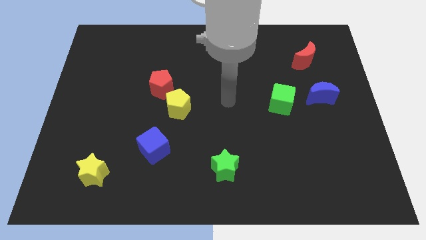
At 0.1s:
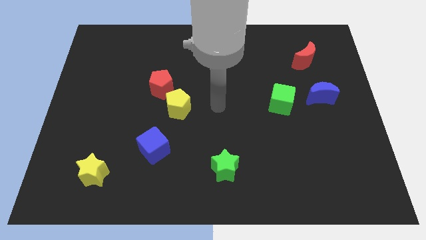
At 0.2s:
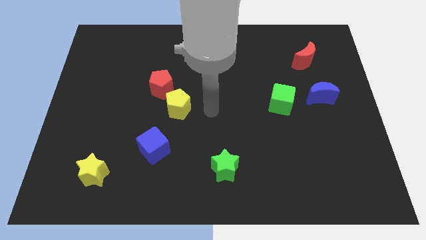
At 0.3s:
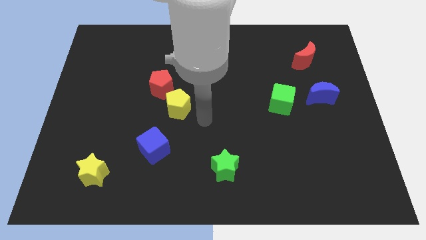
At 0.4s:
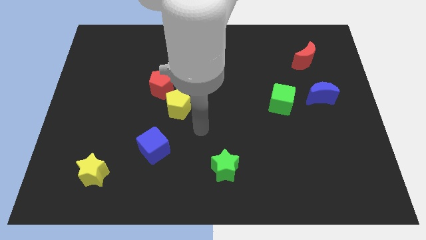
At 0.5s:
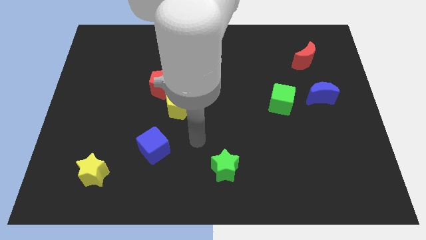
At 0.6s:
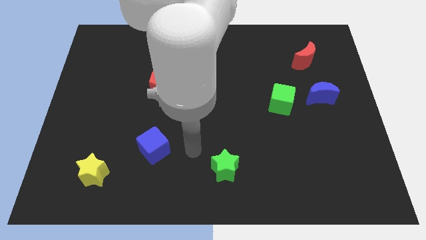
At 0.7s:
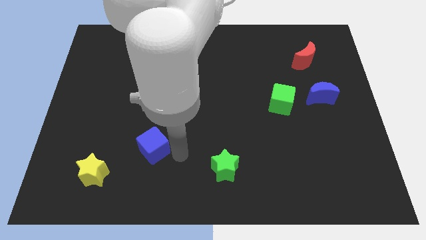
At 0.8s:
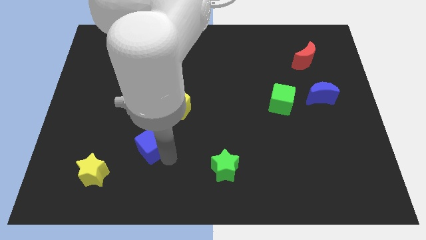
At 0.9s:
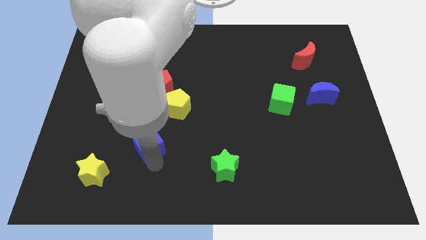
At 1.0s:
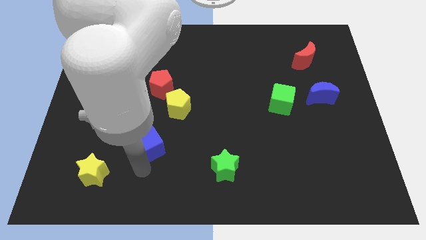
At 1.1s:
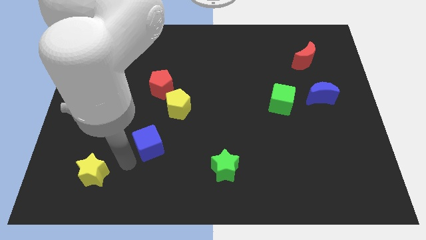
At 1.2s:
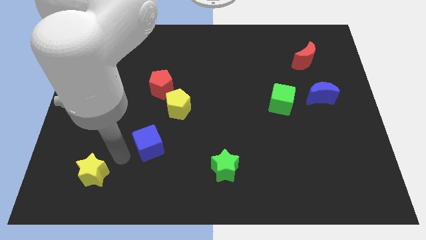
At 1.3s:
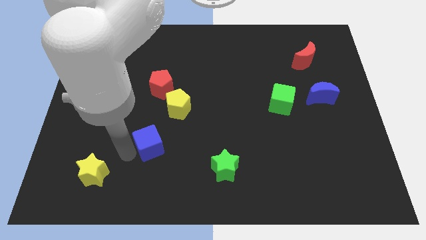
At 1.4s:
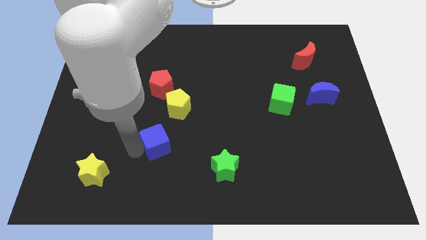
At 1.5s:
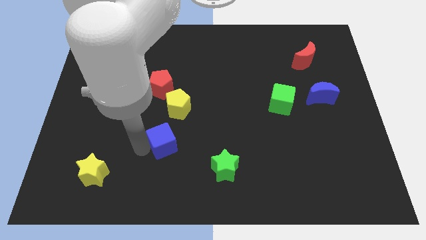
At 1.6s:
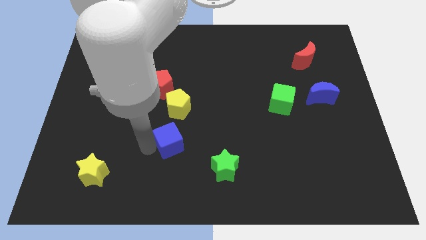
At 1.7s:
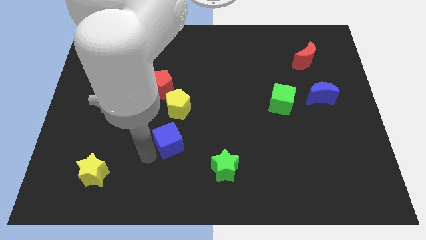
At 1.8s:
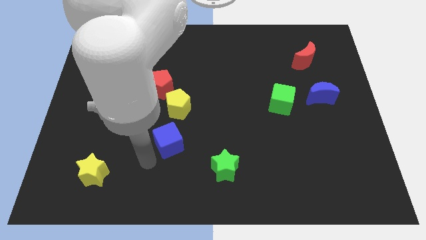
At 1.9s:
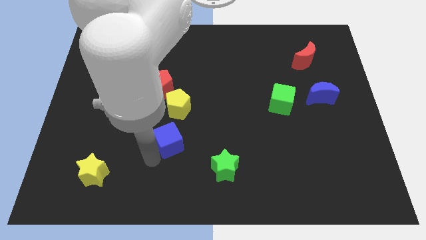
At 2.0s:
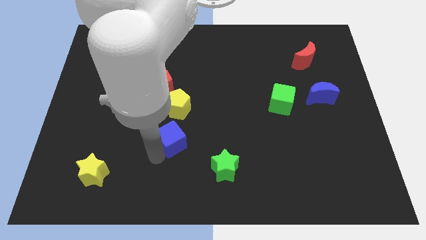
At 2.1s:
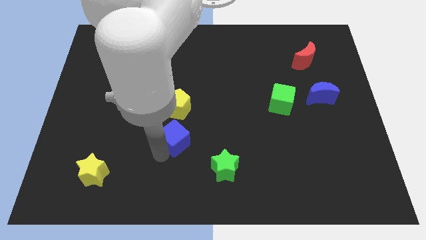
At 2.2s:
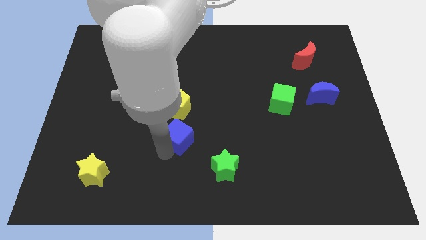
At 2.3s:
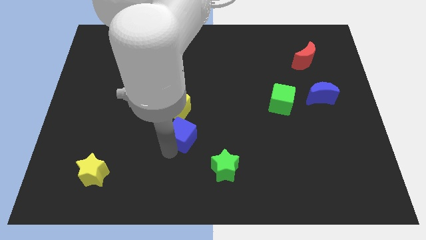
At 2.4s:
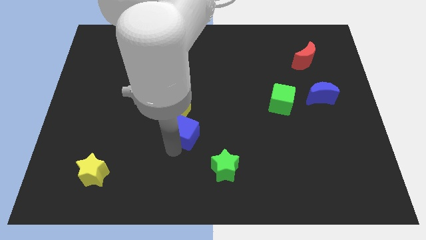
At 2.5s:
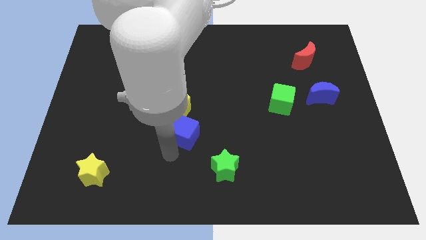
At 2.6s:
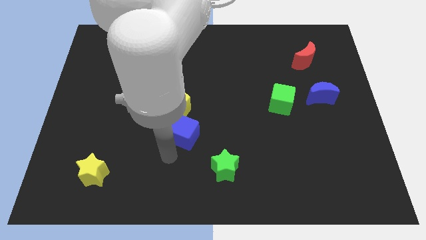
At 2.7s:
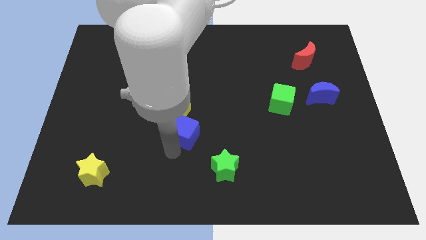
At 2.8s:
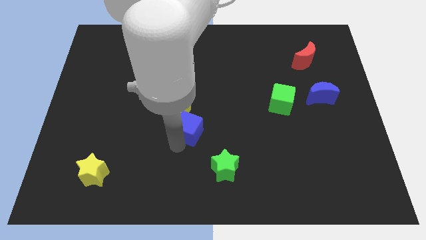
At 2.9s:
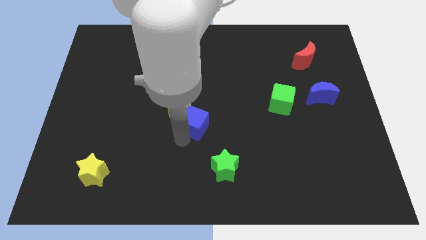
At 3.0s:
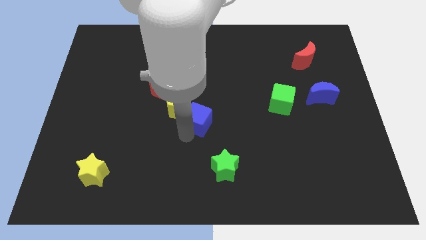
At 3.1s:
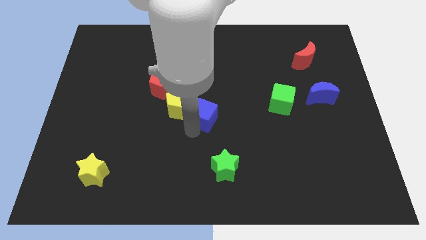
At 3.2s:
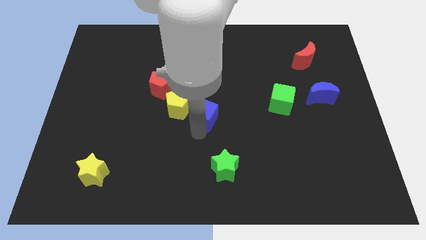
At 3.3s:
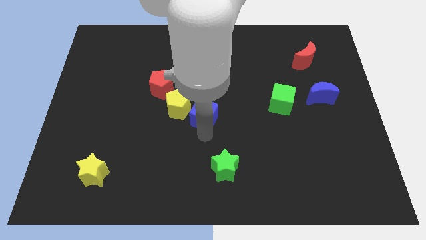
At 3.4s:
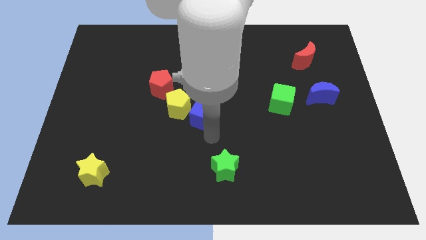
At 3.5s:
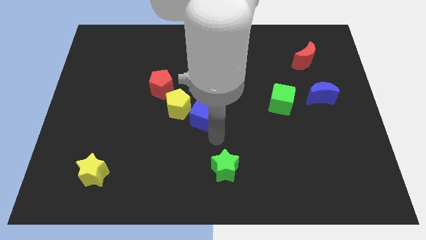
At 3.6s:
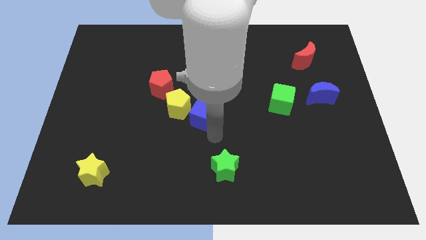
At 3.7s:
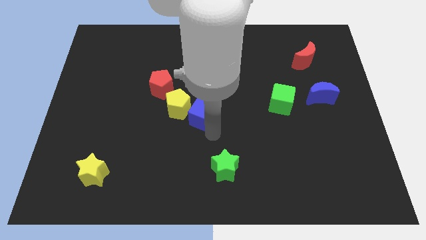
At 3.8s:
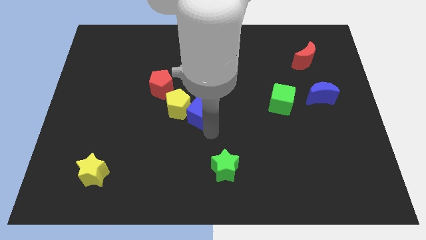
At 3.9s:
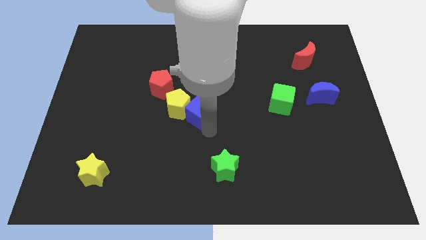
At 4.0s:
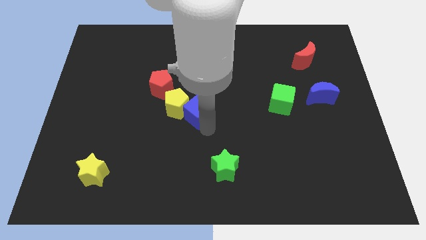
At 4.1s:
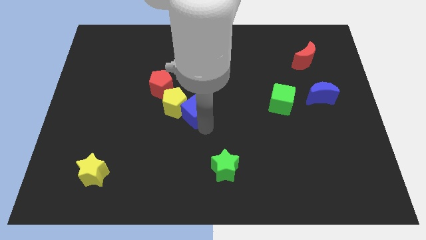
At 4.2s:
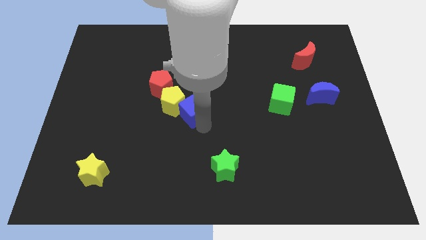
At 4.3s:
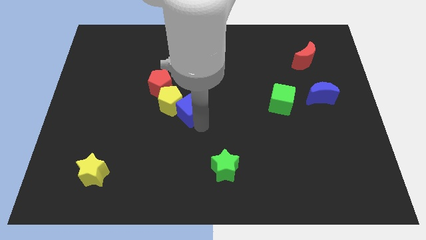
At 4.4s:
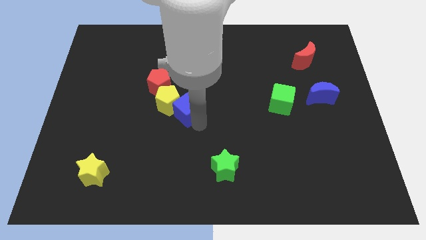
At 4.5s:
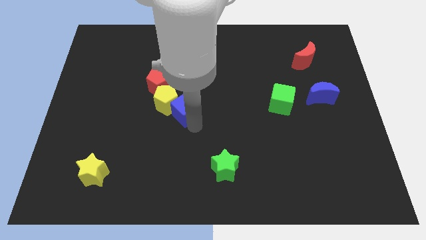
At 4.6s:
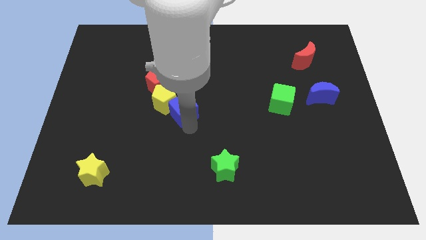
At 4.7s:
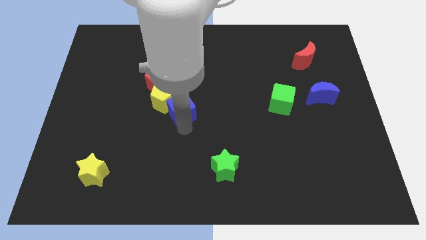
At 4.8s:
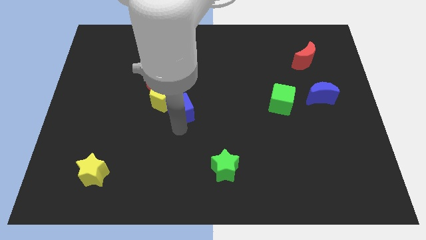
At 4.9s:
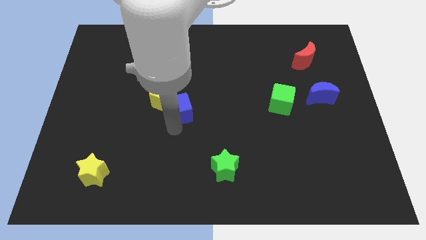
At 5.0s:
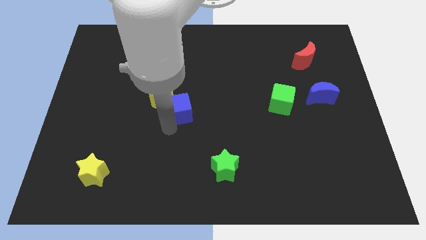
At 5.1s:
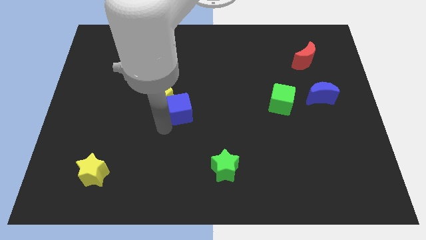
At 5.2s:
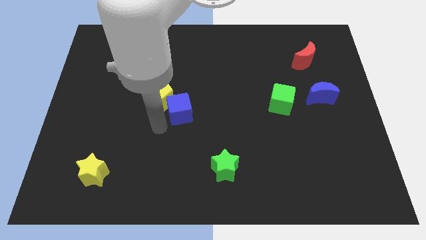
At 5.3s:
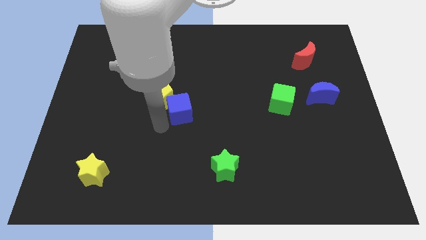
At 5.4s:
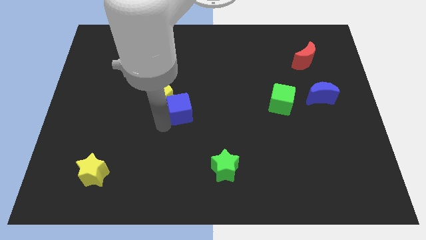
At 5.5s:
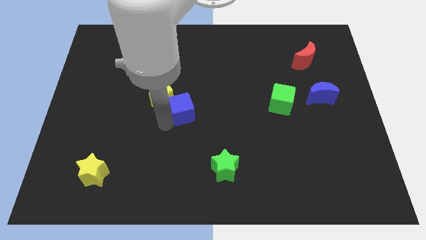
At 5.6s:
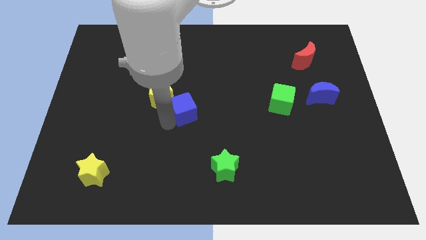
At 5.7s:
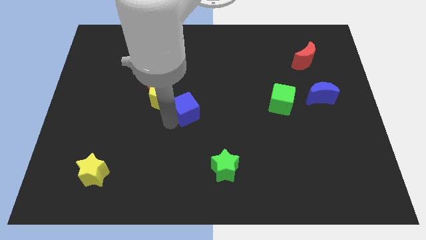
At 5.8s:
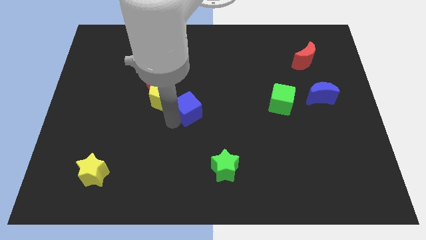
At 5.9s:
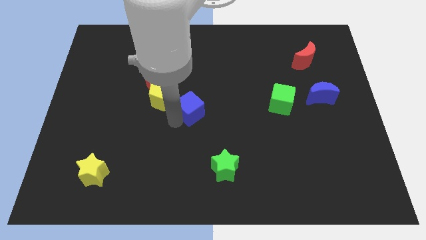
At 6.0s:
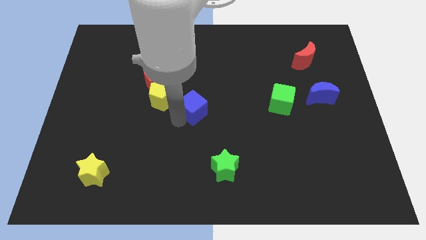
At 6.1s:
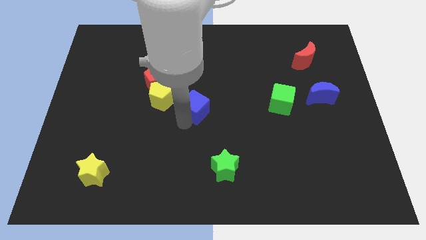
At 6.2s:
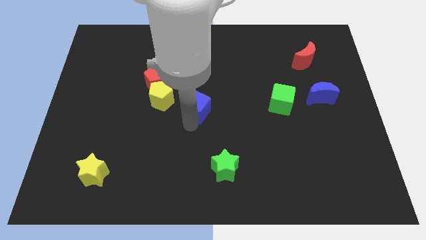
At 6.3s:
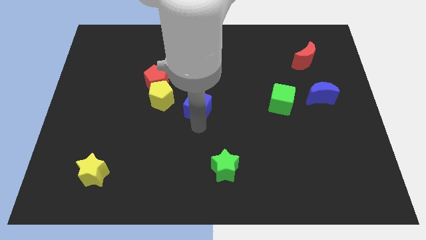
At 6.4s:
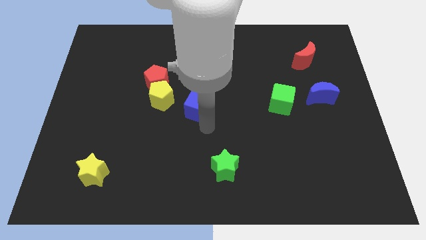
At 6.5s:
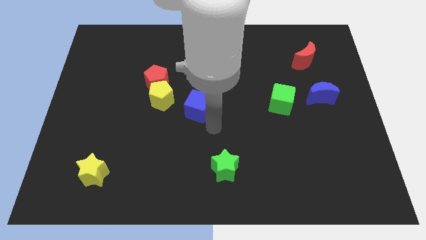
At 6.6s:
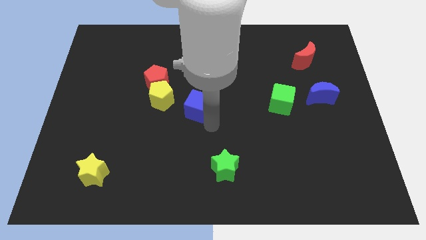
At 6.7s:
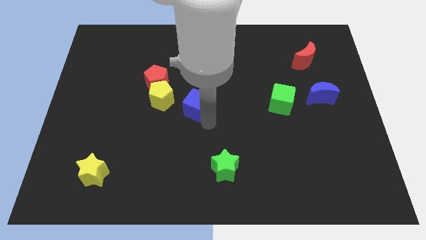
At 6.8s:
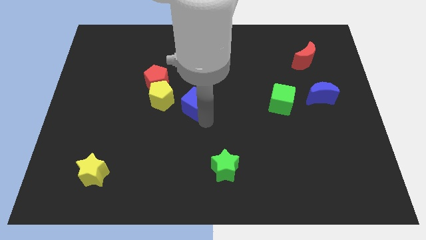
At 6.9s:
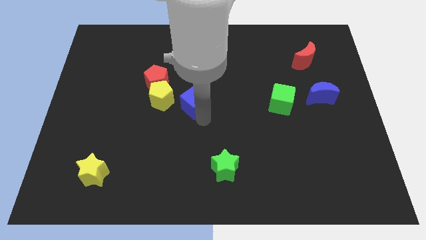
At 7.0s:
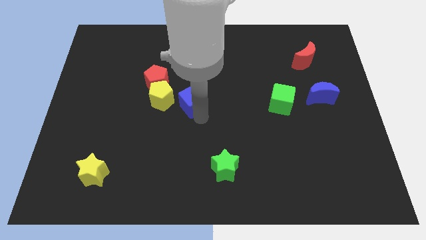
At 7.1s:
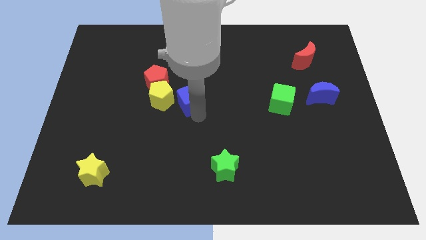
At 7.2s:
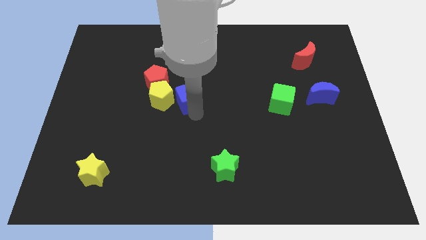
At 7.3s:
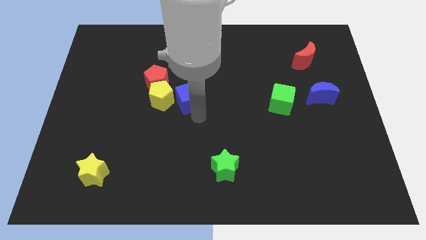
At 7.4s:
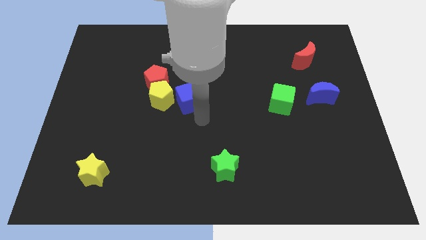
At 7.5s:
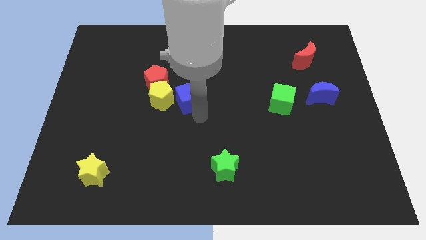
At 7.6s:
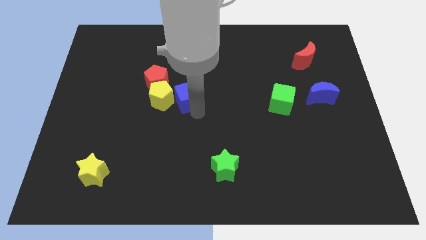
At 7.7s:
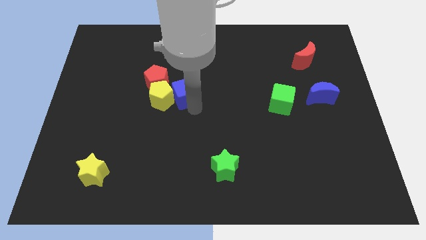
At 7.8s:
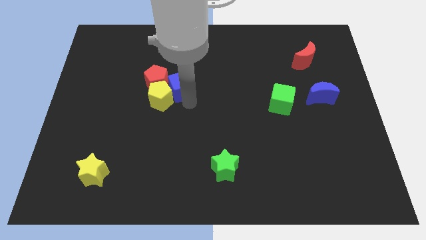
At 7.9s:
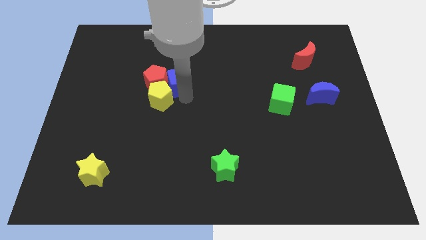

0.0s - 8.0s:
put the blue cube to the top right of the red pentagon
